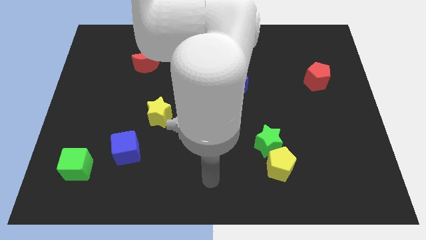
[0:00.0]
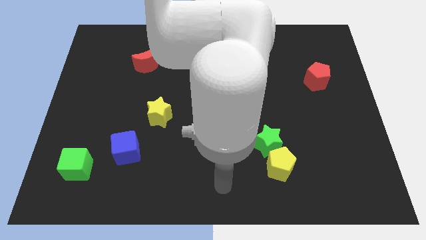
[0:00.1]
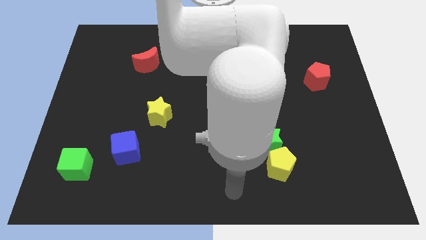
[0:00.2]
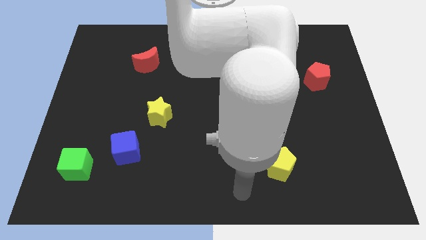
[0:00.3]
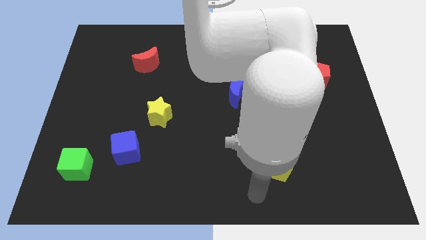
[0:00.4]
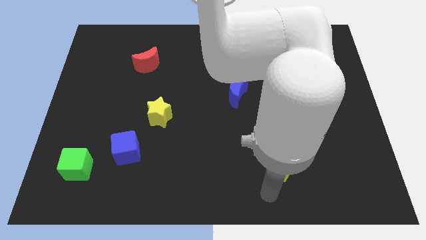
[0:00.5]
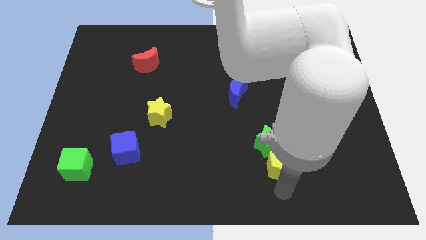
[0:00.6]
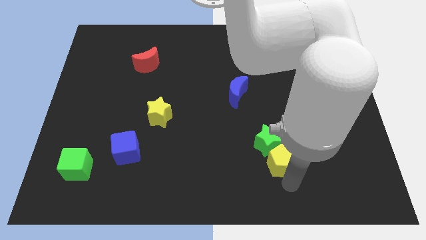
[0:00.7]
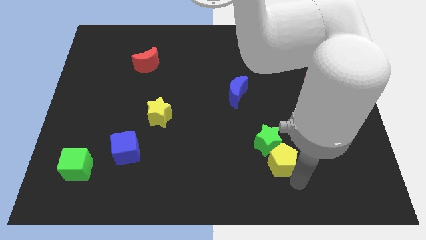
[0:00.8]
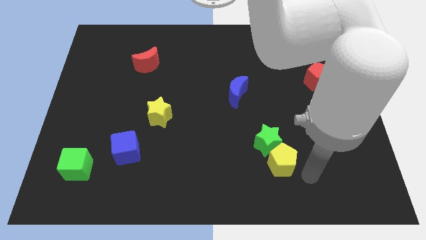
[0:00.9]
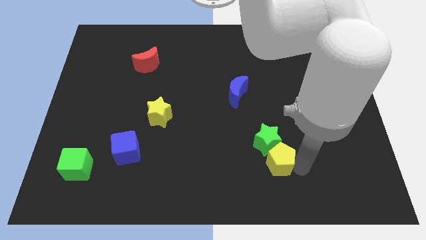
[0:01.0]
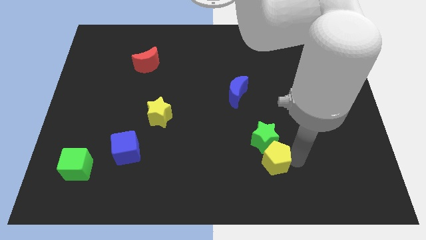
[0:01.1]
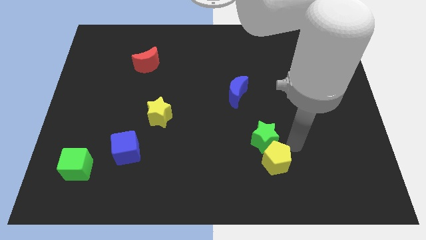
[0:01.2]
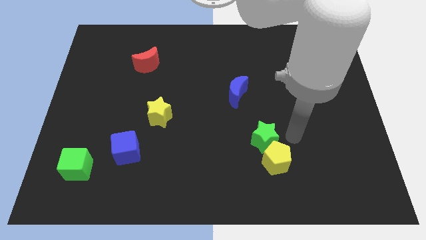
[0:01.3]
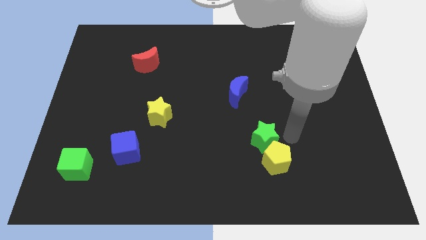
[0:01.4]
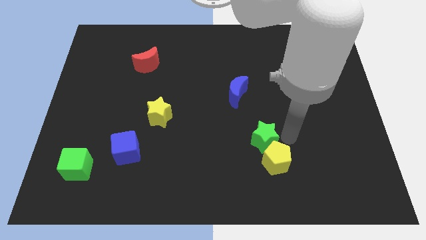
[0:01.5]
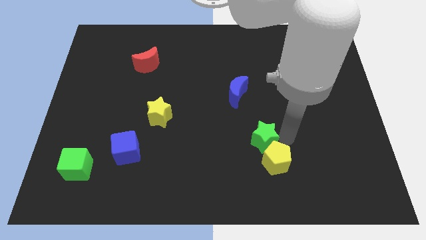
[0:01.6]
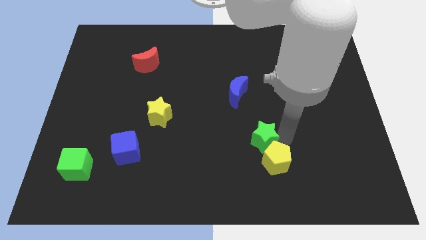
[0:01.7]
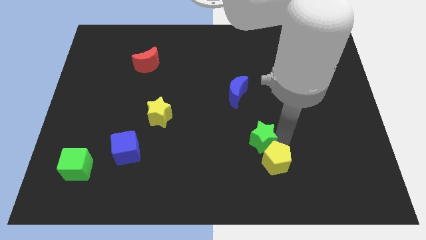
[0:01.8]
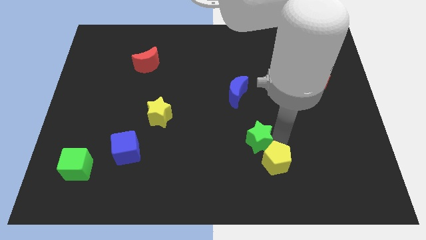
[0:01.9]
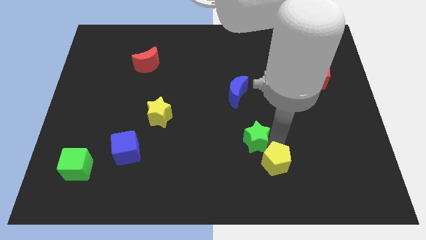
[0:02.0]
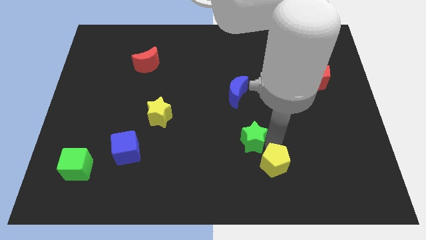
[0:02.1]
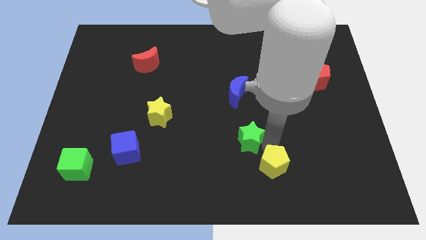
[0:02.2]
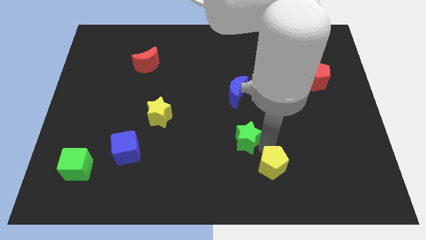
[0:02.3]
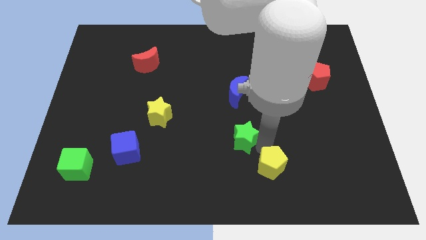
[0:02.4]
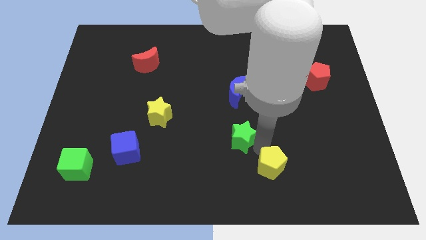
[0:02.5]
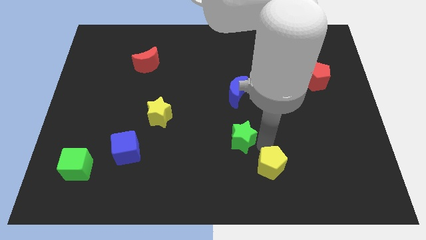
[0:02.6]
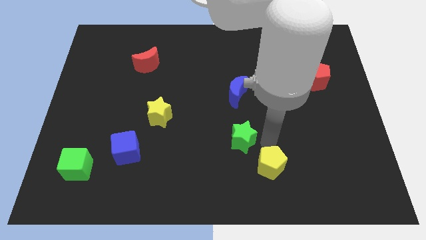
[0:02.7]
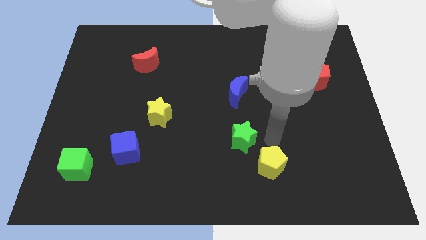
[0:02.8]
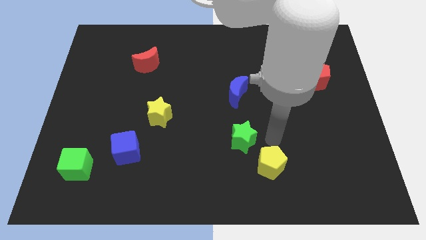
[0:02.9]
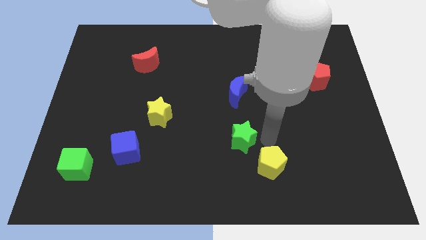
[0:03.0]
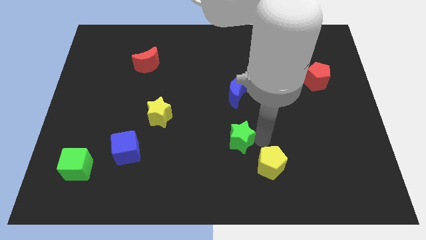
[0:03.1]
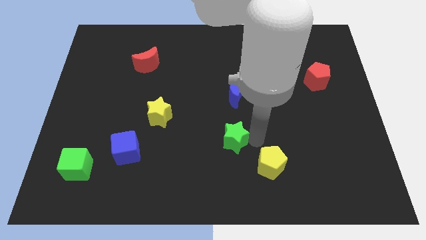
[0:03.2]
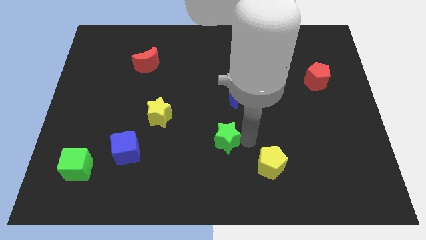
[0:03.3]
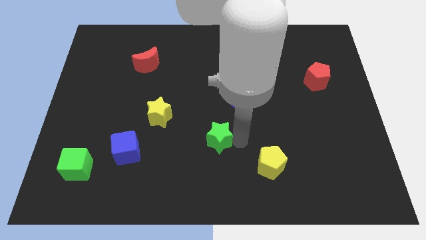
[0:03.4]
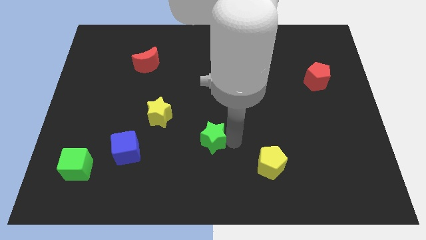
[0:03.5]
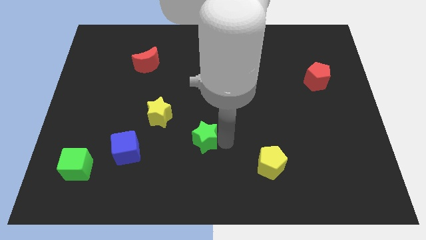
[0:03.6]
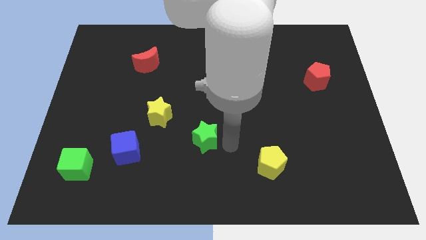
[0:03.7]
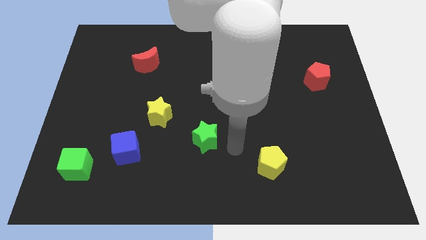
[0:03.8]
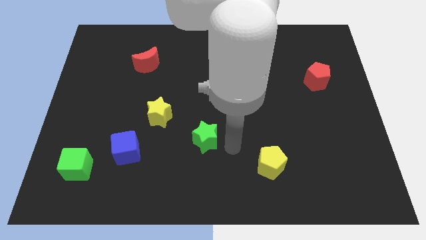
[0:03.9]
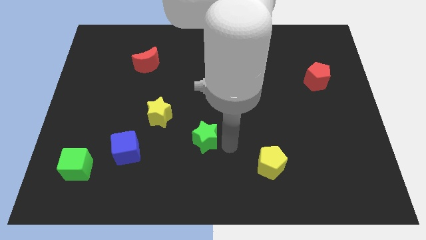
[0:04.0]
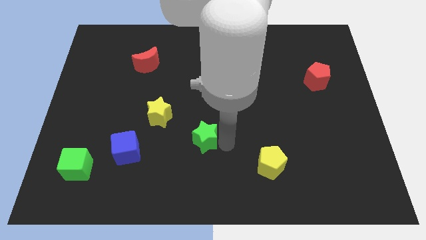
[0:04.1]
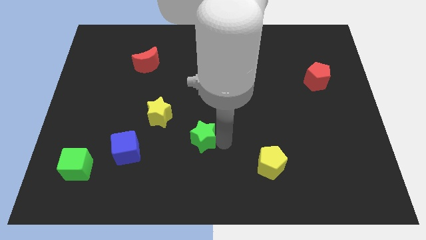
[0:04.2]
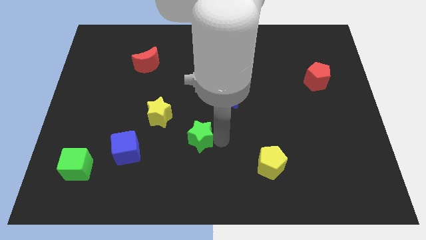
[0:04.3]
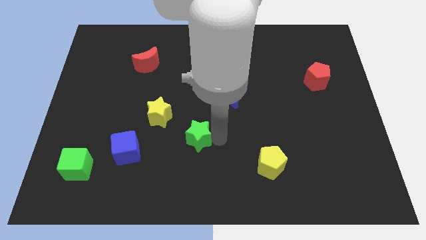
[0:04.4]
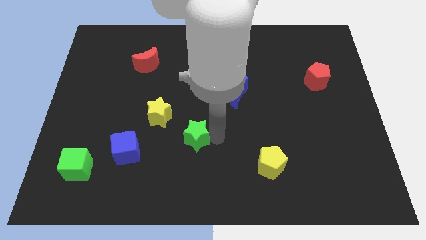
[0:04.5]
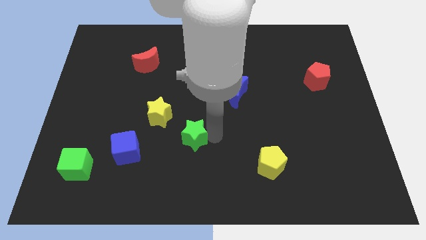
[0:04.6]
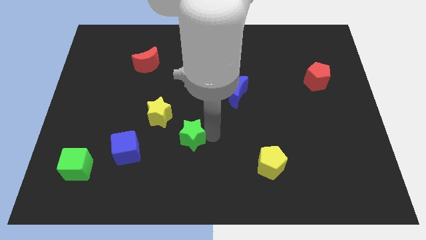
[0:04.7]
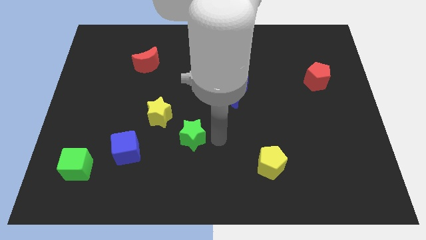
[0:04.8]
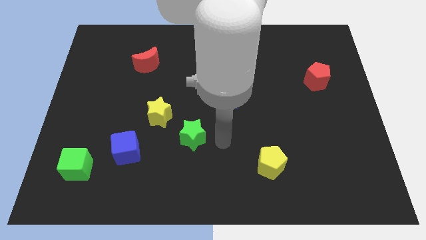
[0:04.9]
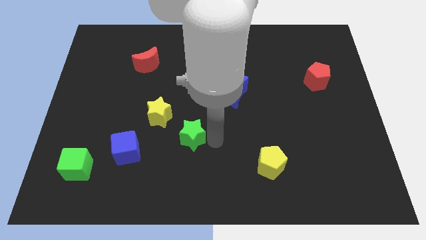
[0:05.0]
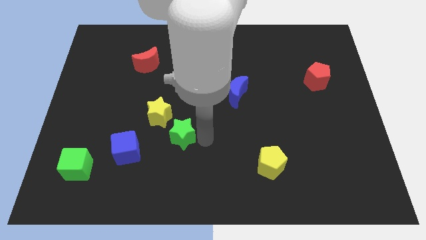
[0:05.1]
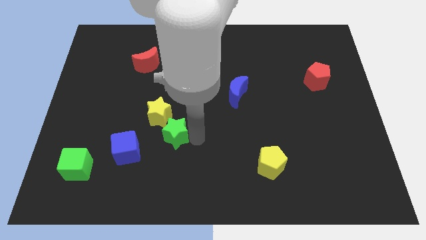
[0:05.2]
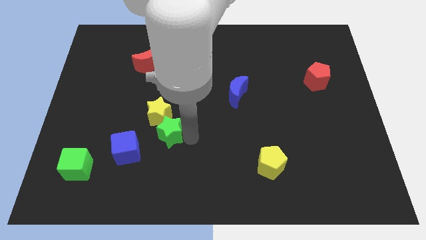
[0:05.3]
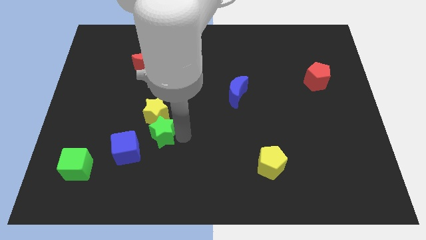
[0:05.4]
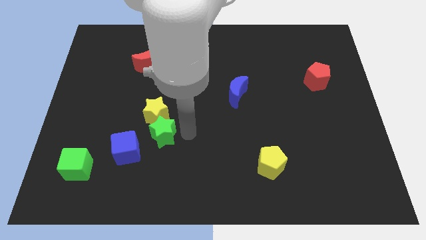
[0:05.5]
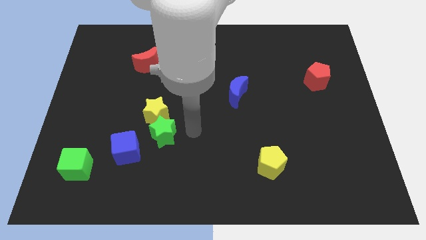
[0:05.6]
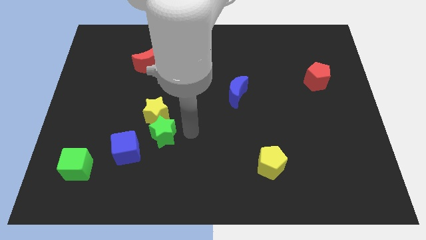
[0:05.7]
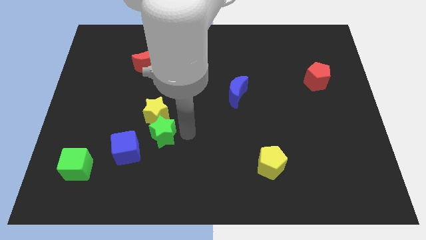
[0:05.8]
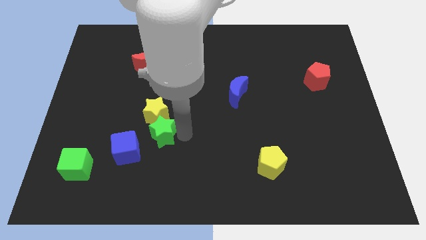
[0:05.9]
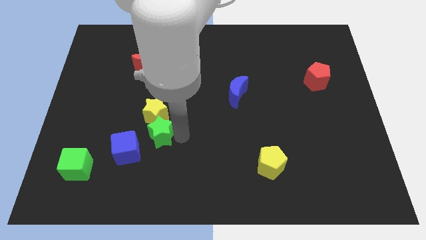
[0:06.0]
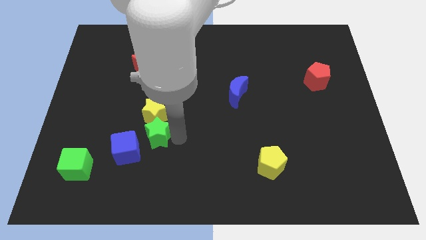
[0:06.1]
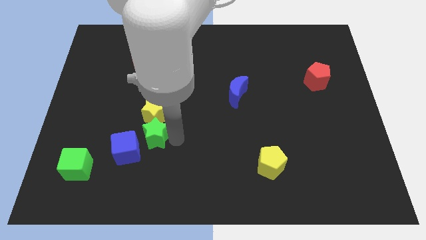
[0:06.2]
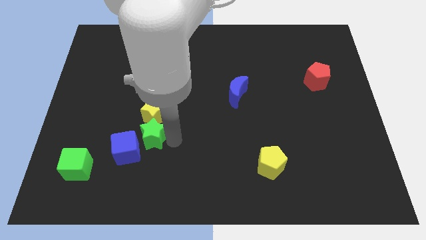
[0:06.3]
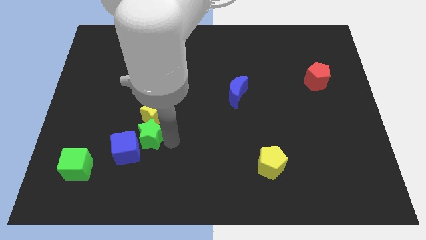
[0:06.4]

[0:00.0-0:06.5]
push the green star next to the blue cube

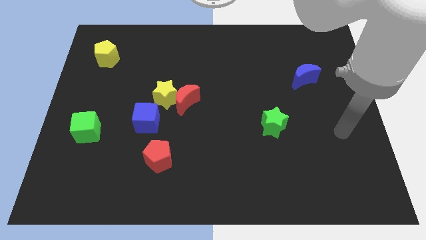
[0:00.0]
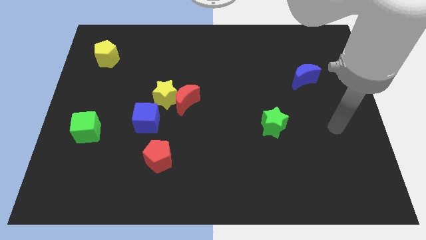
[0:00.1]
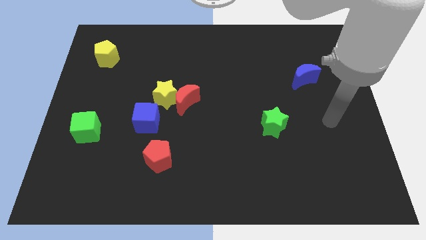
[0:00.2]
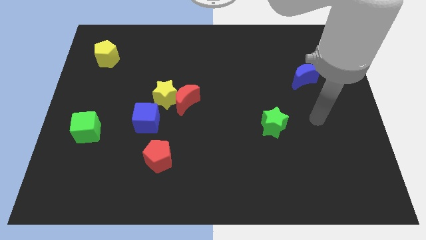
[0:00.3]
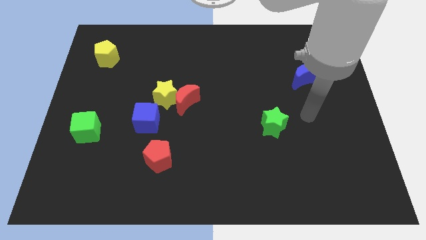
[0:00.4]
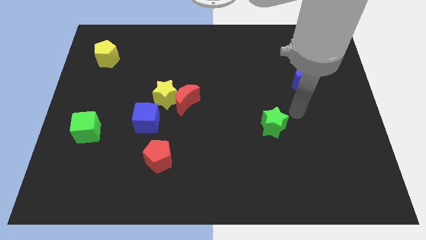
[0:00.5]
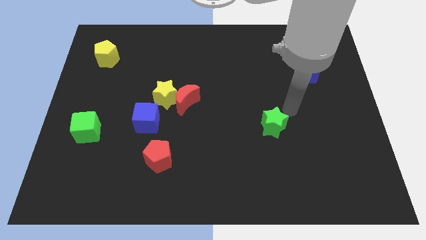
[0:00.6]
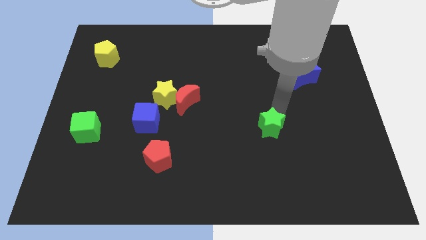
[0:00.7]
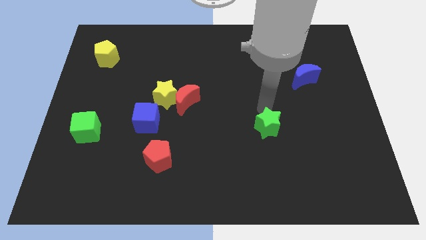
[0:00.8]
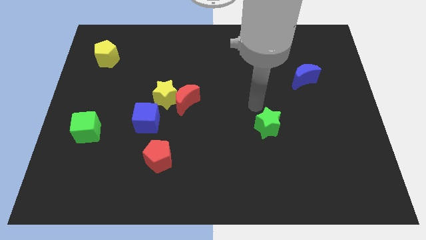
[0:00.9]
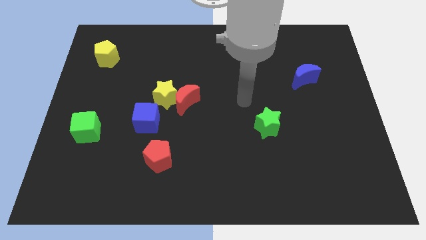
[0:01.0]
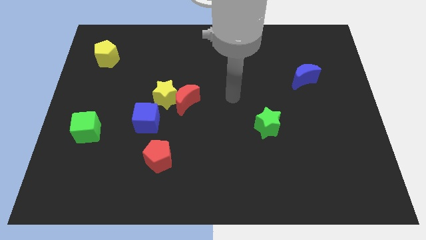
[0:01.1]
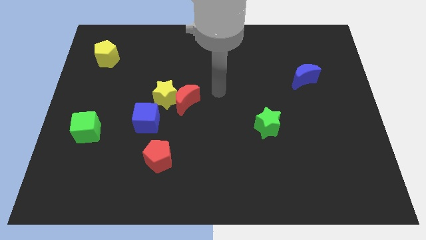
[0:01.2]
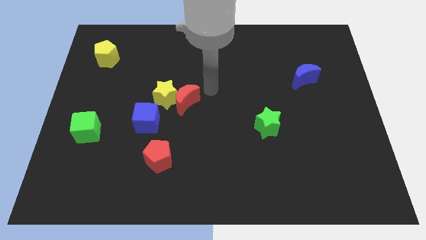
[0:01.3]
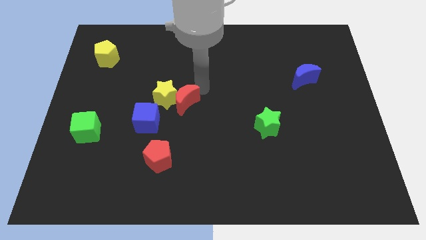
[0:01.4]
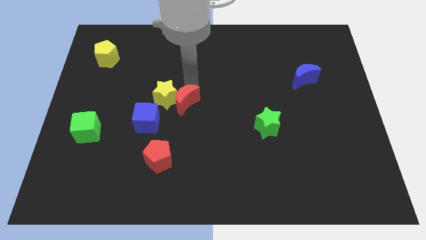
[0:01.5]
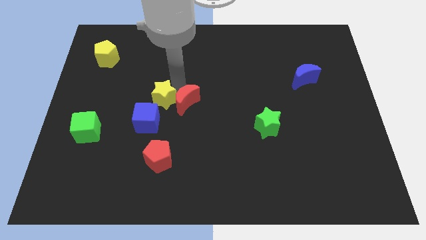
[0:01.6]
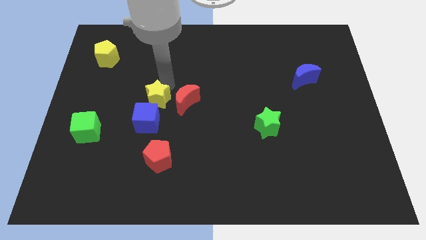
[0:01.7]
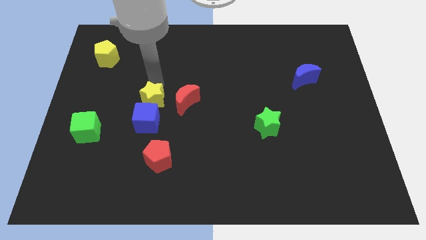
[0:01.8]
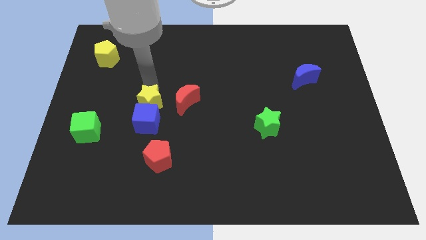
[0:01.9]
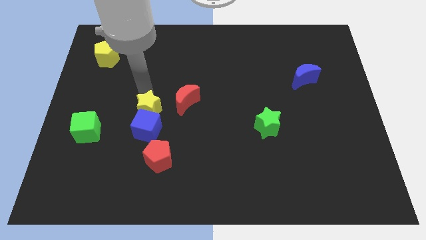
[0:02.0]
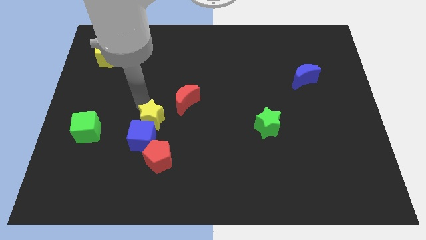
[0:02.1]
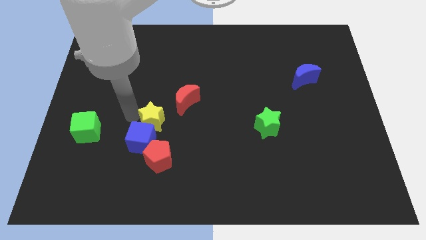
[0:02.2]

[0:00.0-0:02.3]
move the blue cube close to the red pentagon
